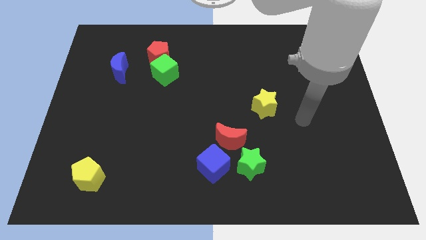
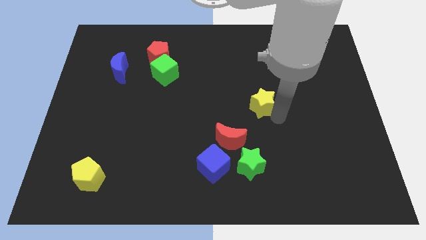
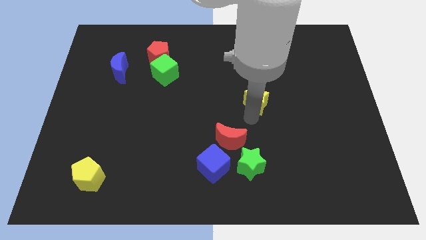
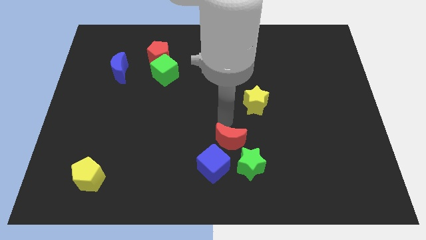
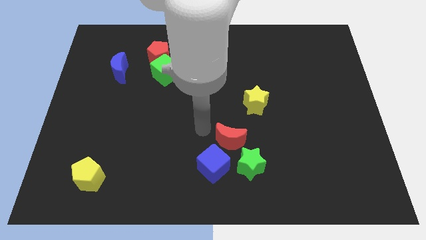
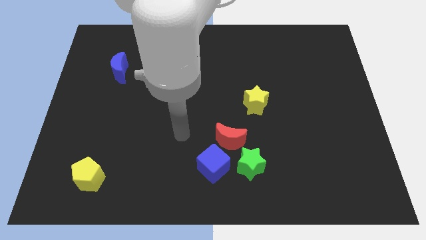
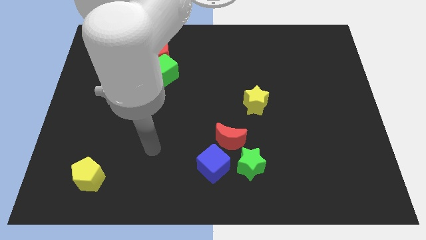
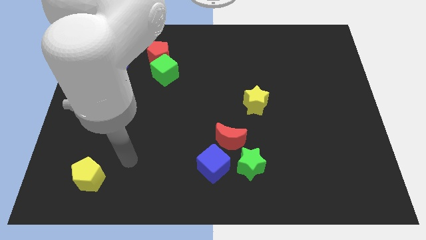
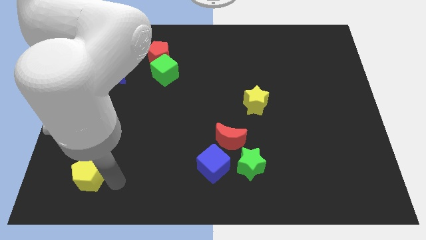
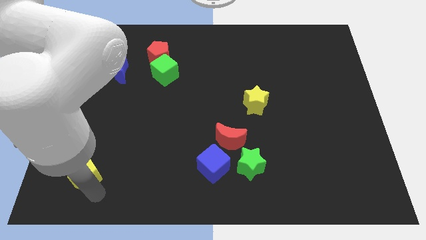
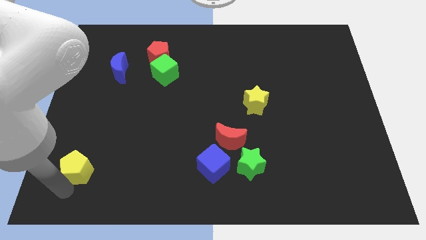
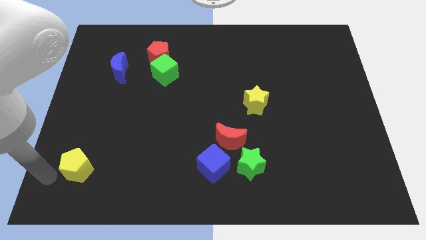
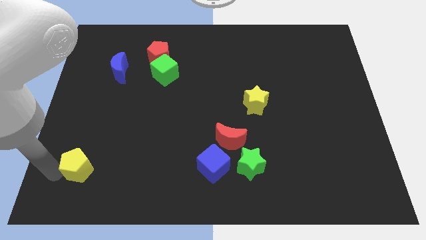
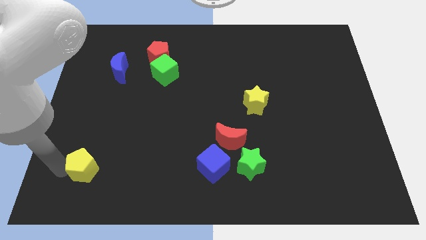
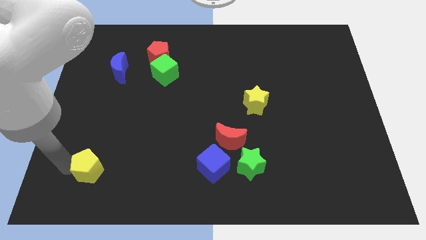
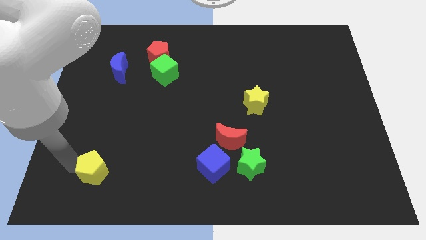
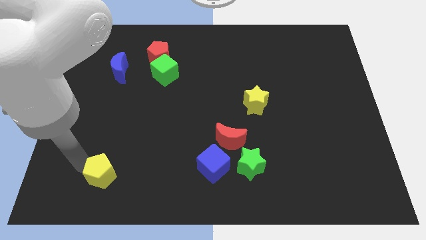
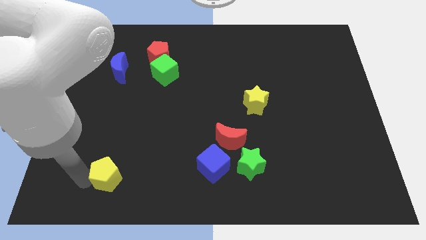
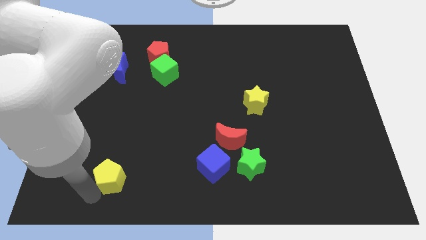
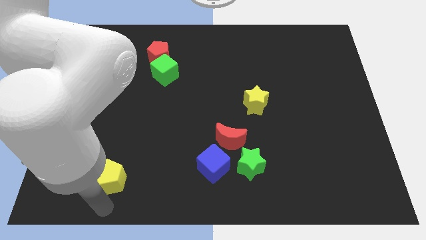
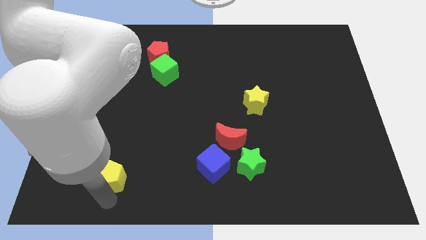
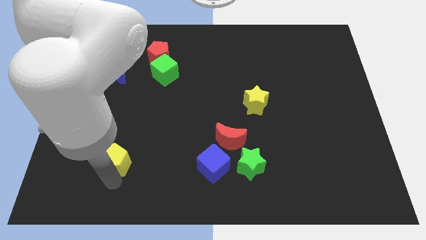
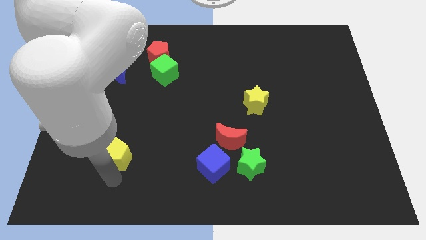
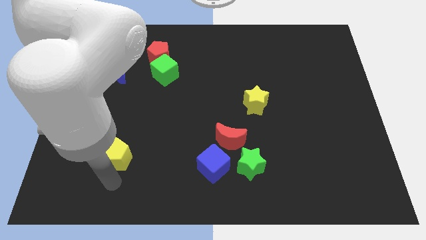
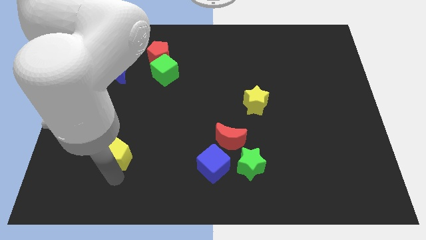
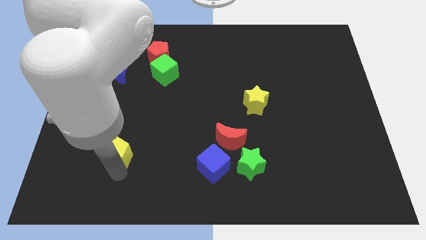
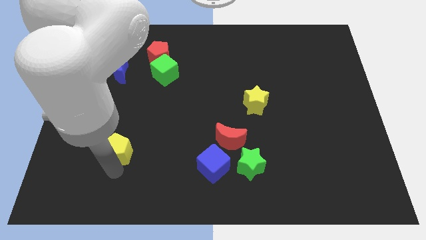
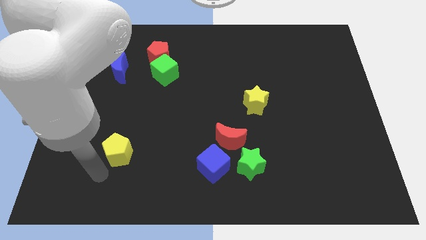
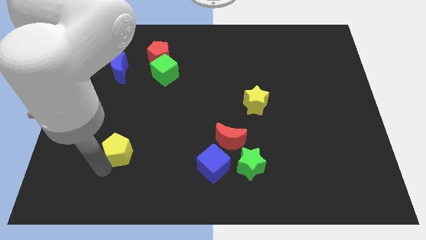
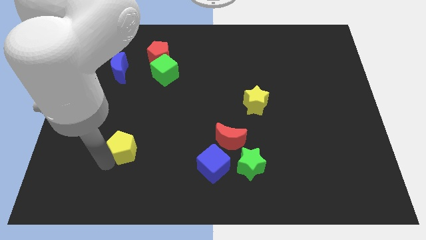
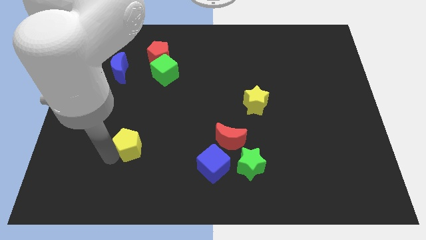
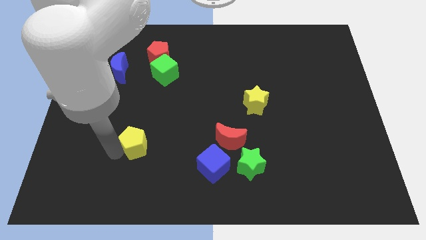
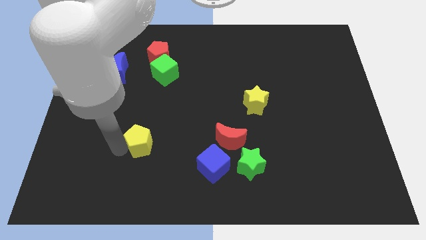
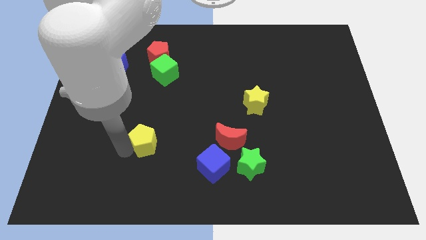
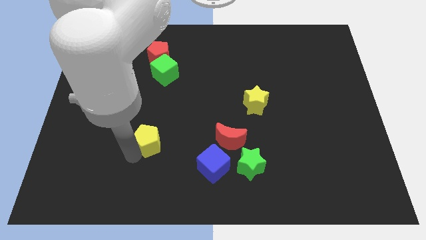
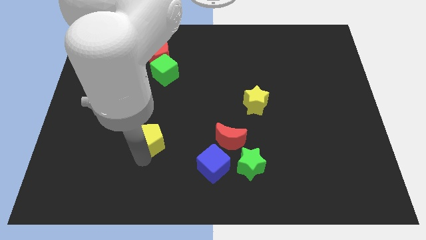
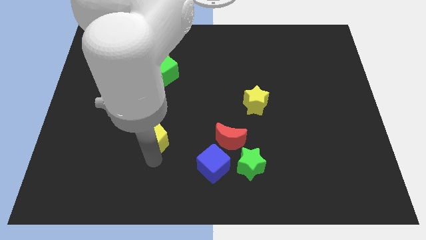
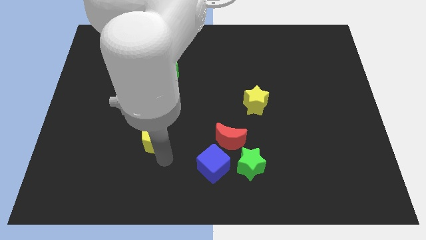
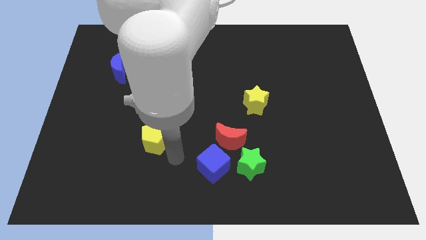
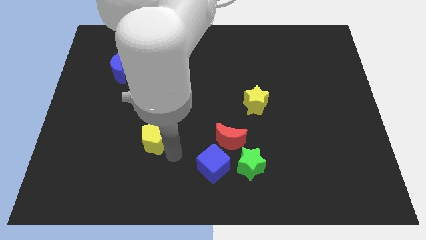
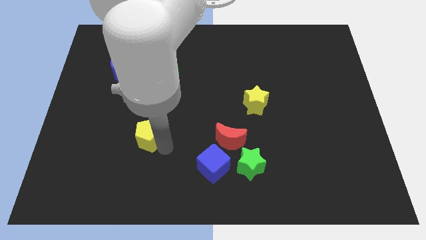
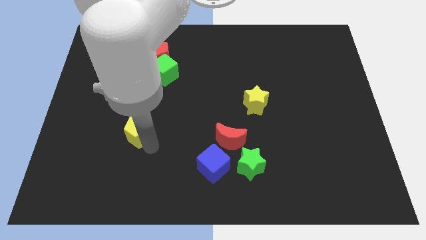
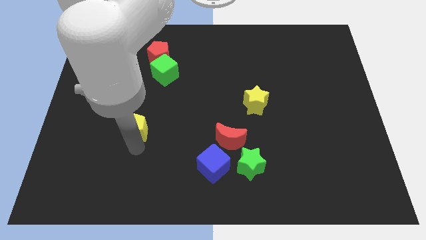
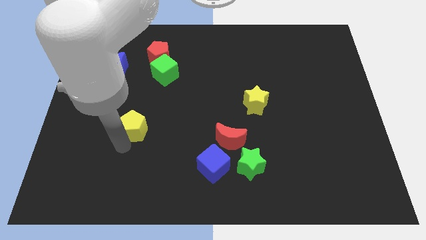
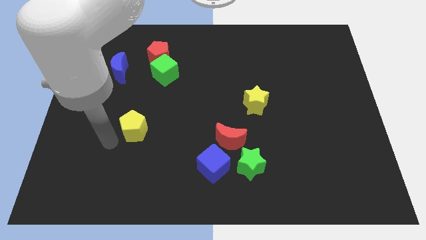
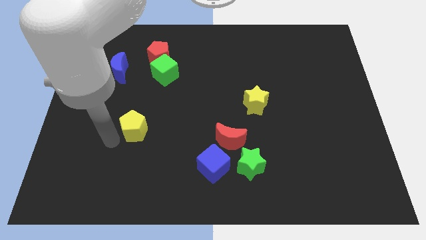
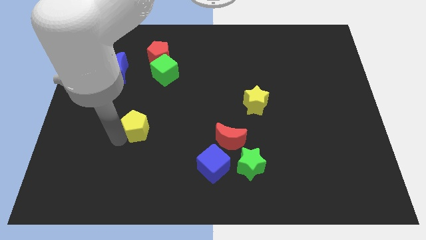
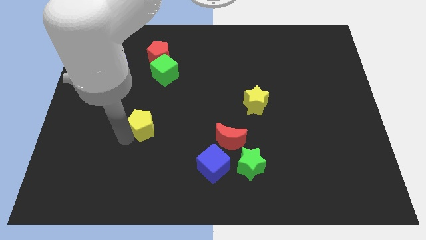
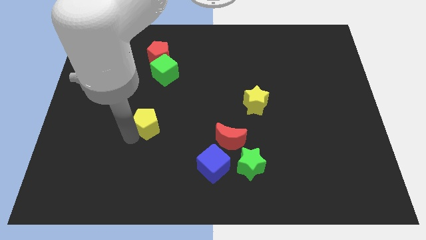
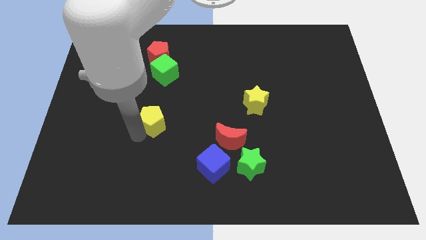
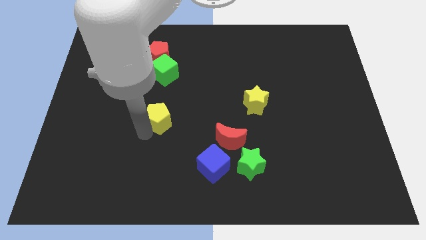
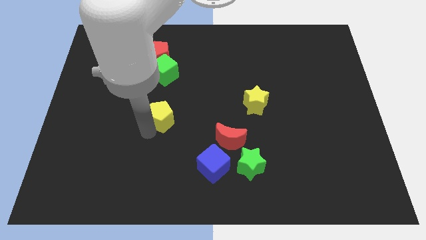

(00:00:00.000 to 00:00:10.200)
push the yellow pentagon upwards and right

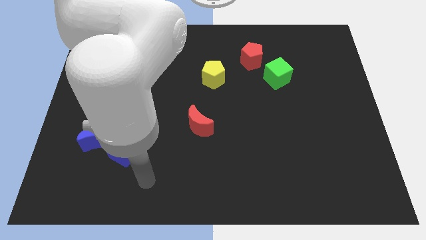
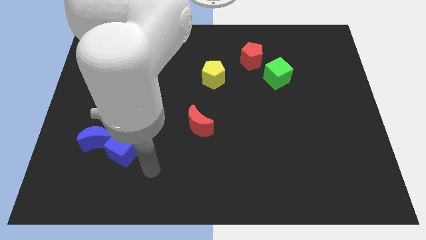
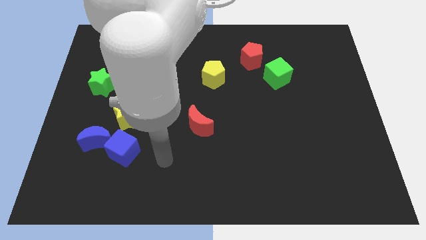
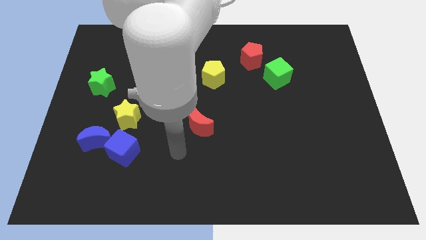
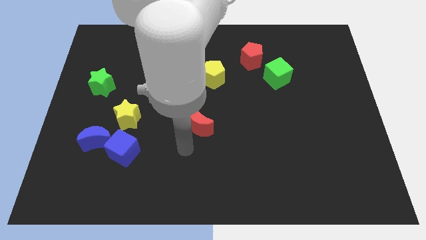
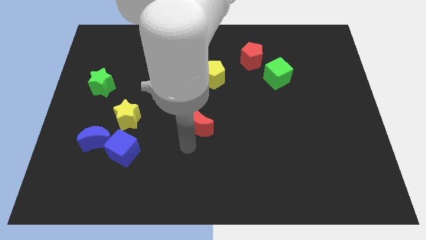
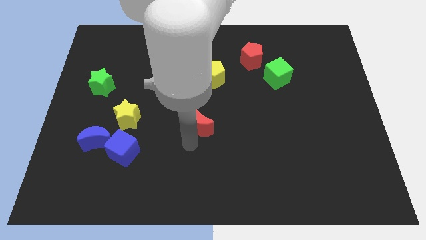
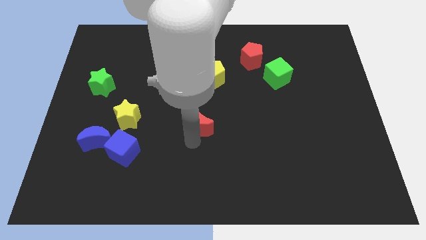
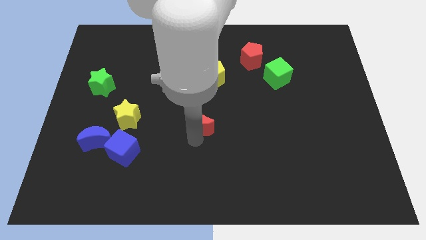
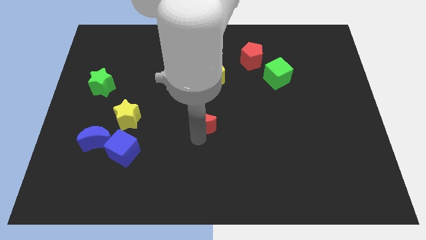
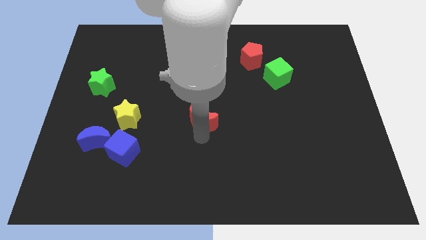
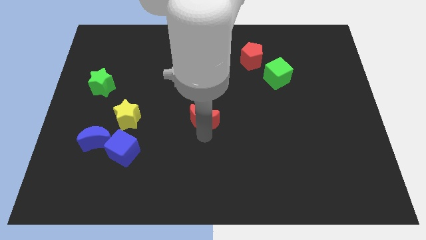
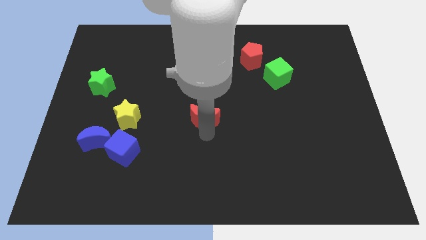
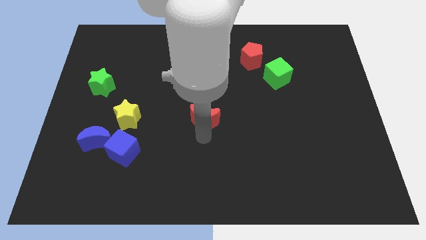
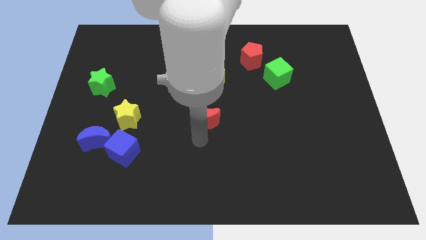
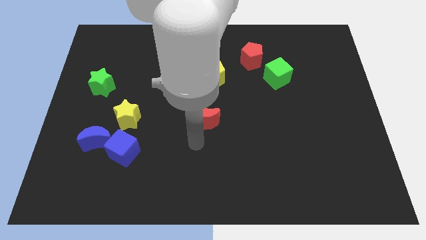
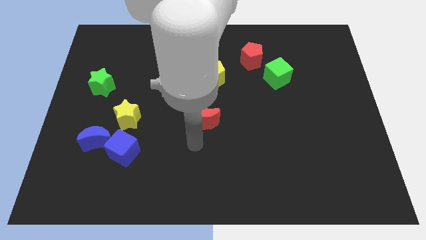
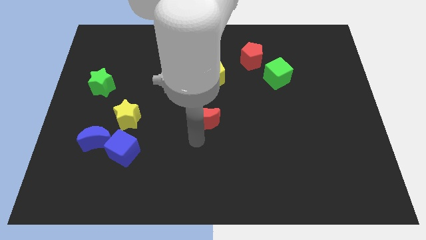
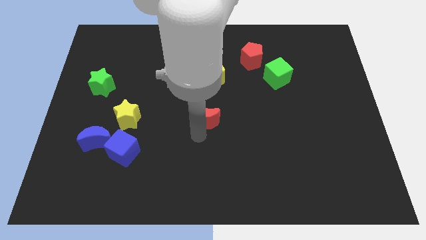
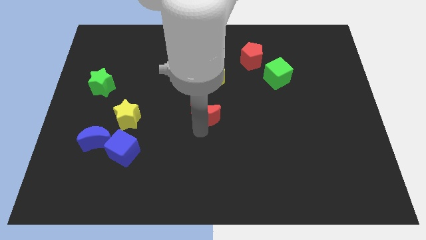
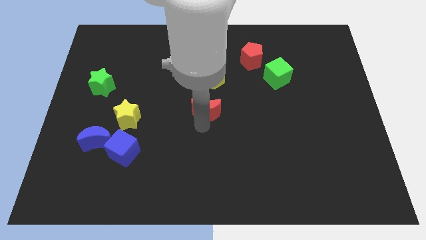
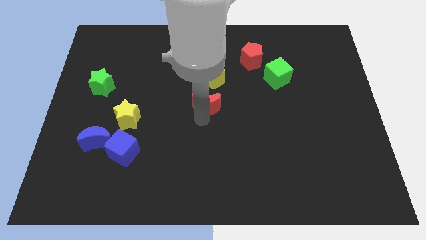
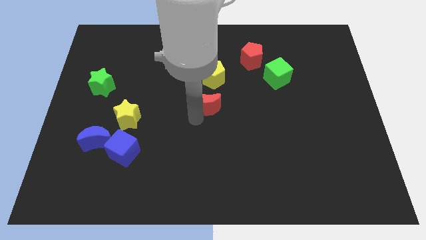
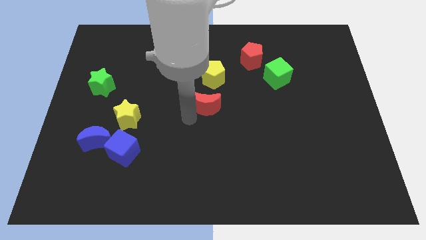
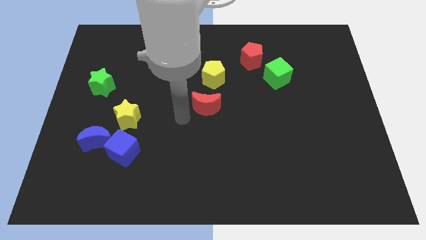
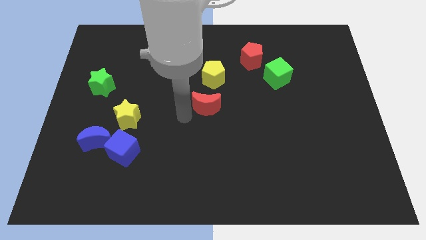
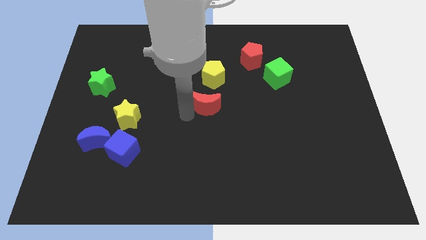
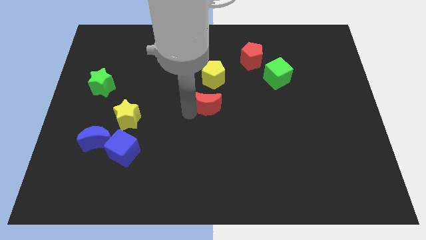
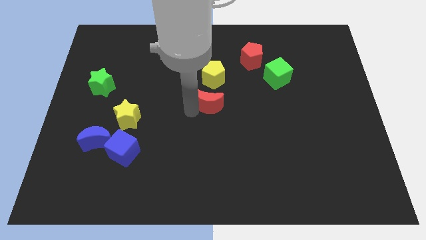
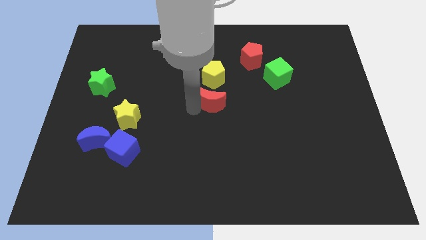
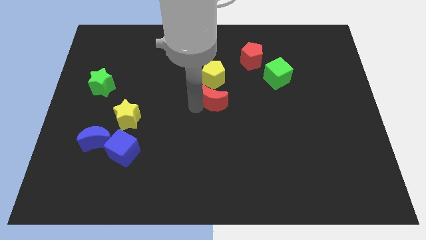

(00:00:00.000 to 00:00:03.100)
slightly move the red moon diagonally upwards and to the right

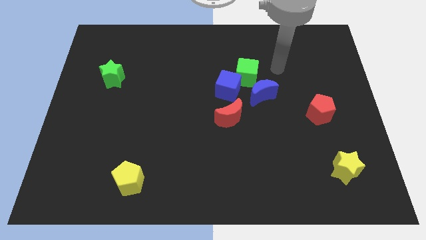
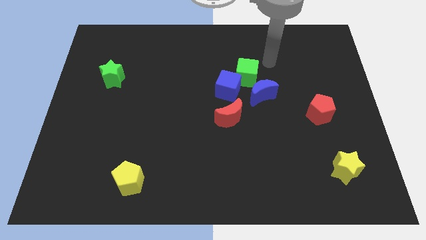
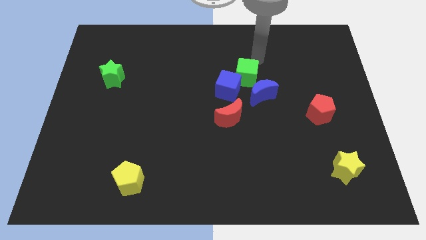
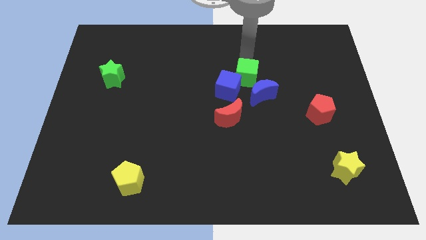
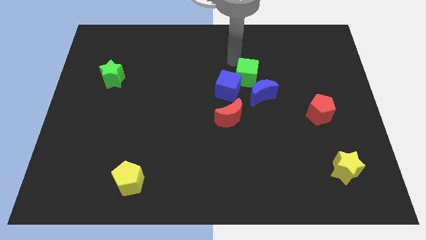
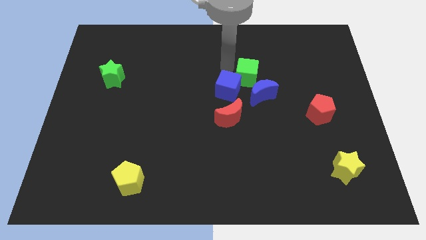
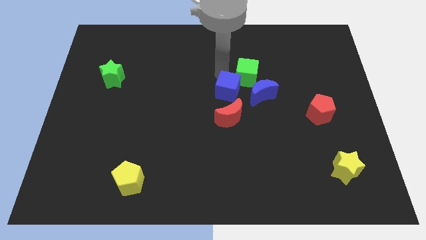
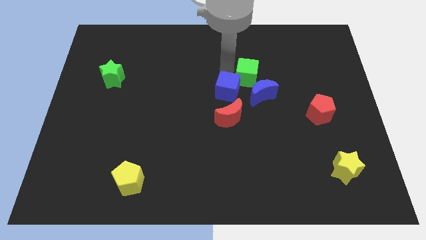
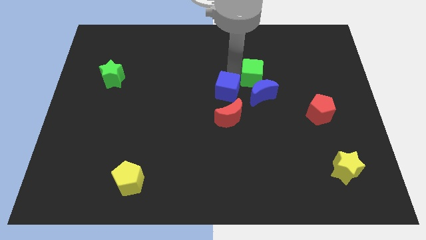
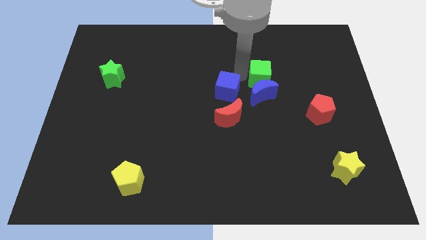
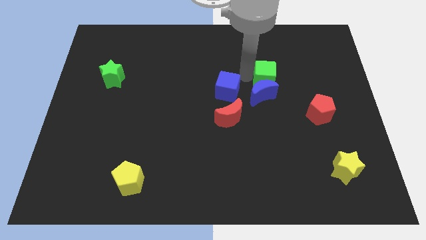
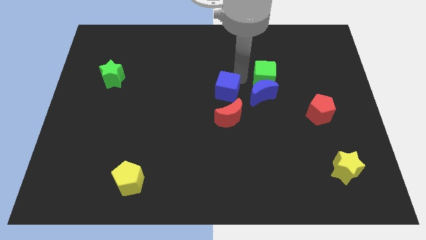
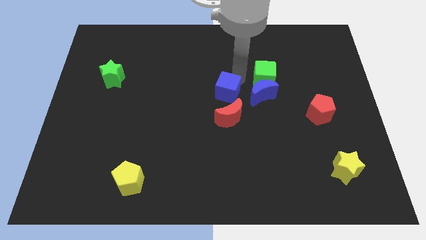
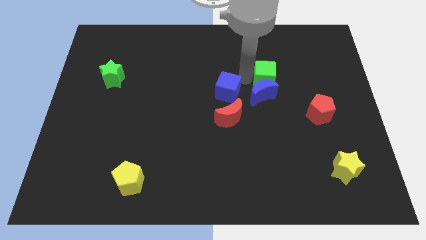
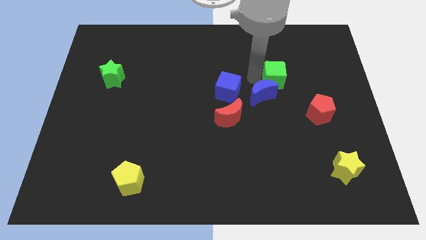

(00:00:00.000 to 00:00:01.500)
slide the green cube slightly right
